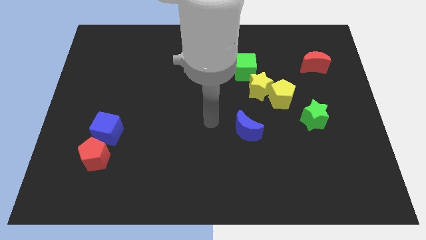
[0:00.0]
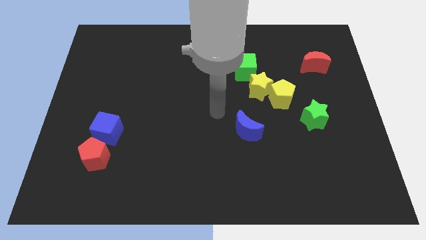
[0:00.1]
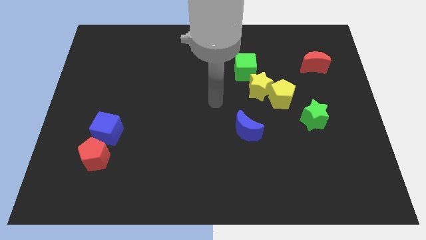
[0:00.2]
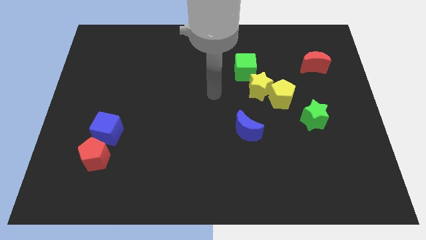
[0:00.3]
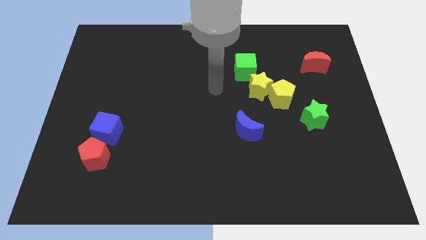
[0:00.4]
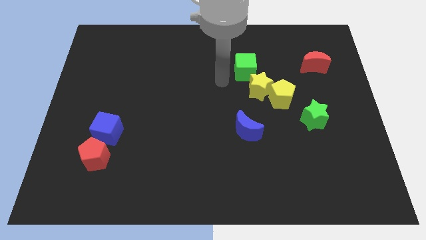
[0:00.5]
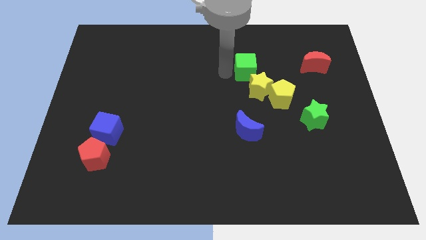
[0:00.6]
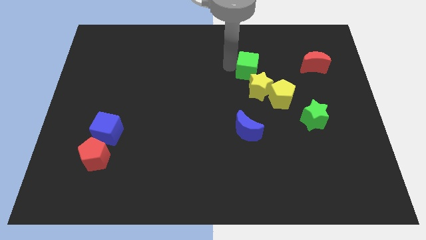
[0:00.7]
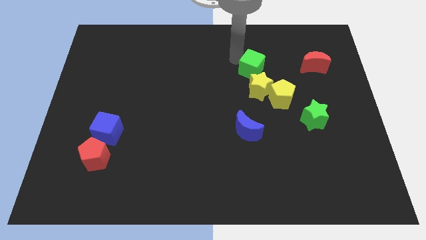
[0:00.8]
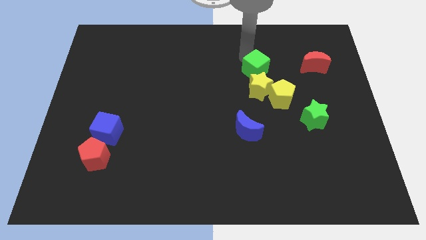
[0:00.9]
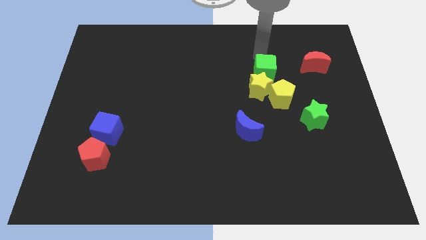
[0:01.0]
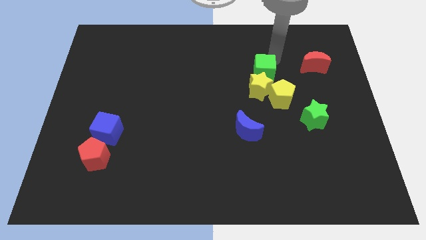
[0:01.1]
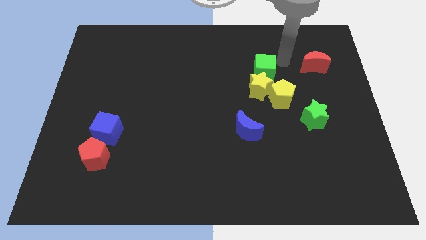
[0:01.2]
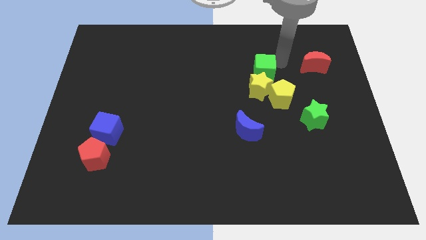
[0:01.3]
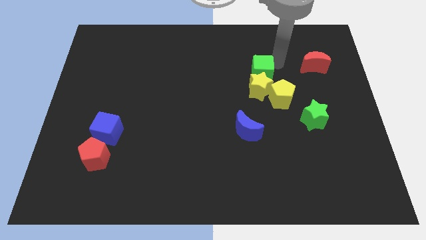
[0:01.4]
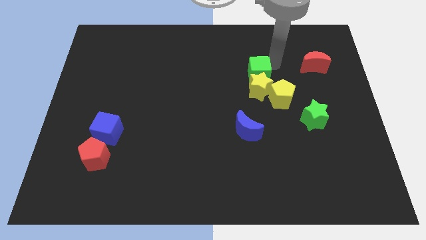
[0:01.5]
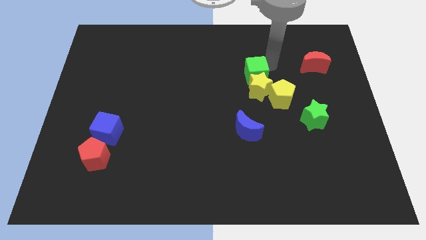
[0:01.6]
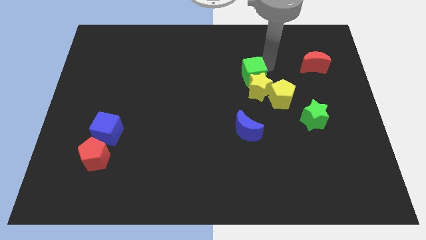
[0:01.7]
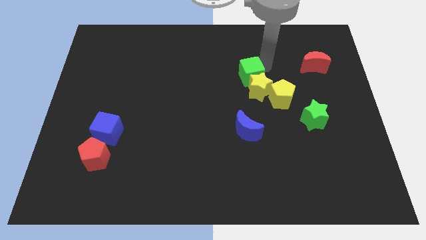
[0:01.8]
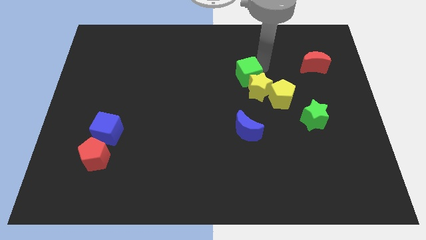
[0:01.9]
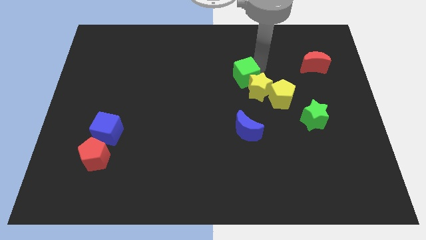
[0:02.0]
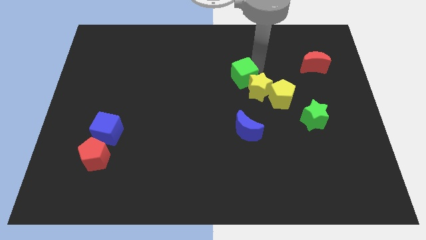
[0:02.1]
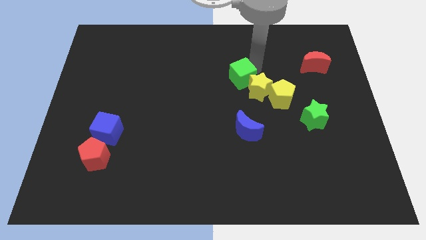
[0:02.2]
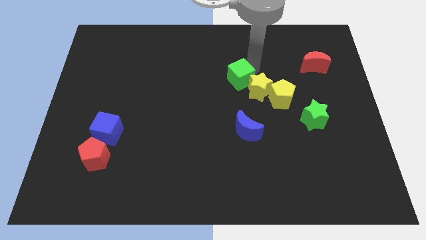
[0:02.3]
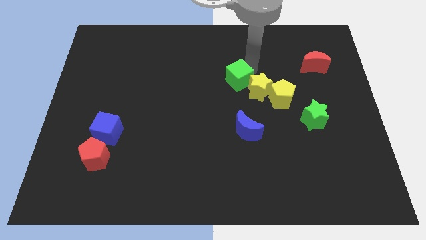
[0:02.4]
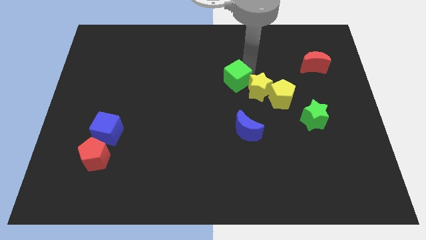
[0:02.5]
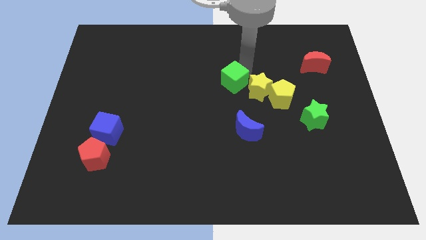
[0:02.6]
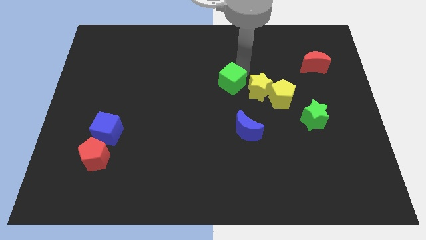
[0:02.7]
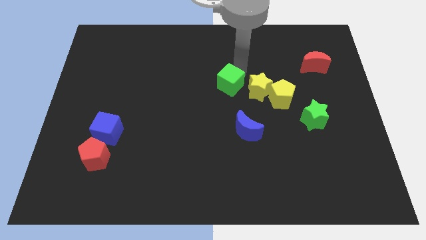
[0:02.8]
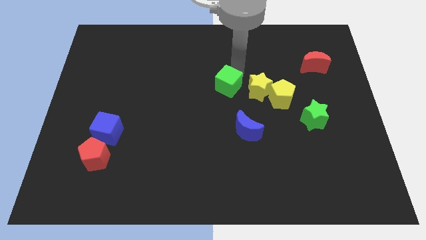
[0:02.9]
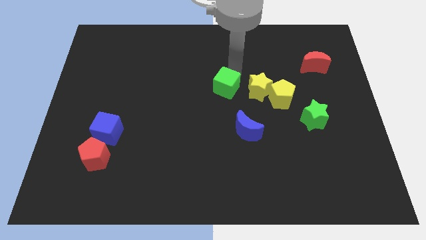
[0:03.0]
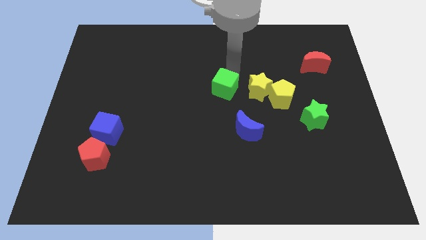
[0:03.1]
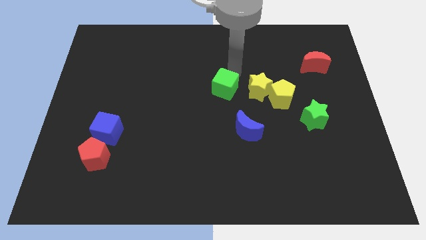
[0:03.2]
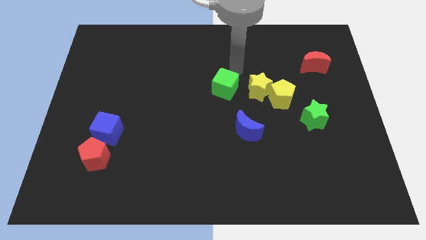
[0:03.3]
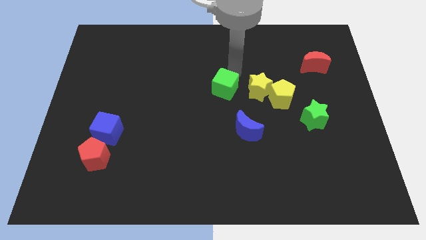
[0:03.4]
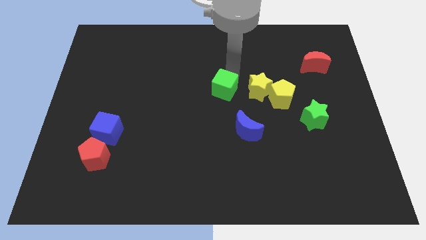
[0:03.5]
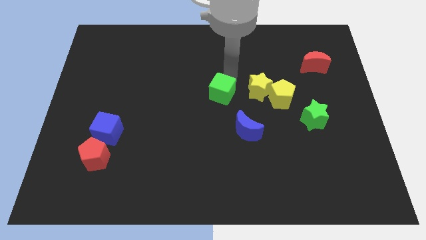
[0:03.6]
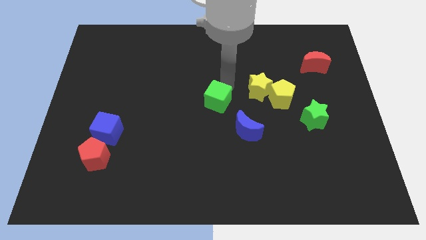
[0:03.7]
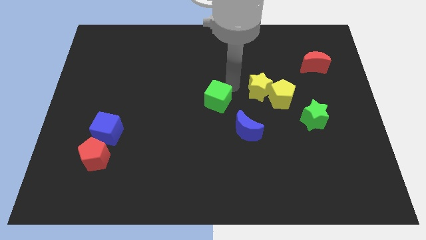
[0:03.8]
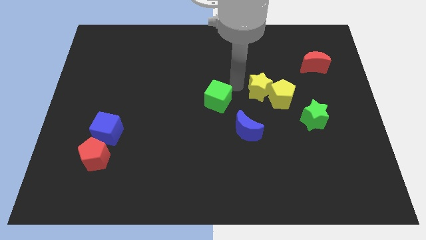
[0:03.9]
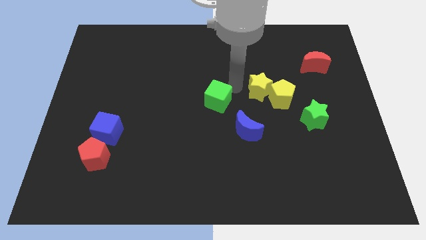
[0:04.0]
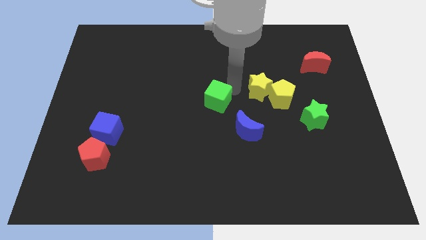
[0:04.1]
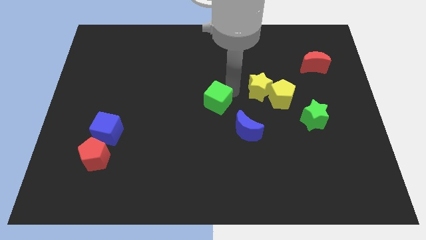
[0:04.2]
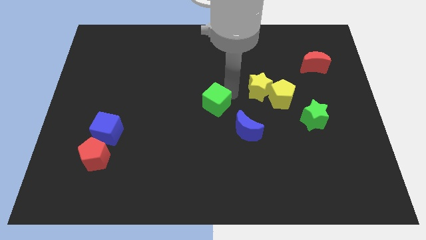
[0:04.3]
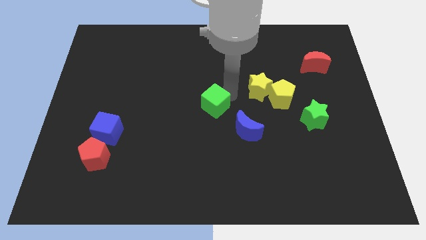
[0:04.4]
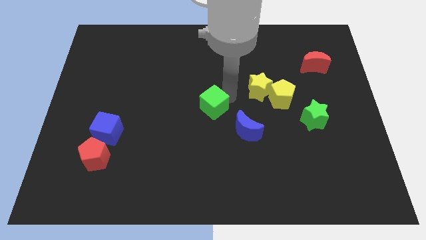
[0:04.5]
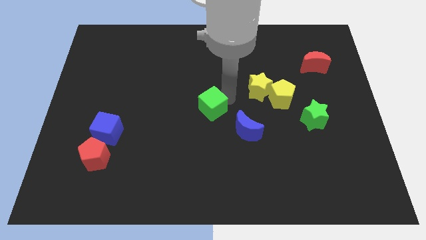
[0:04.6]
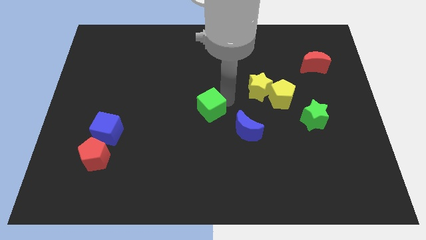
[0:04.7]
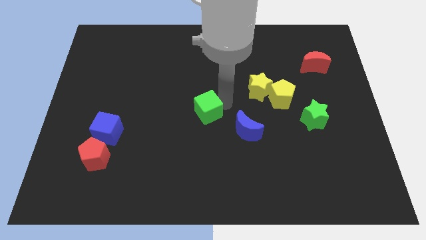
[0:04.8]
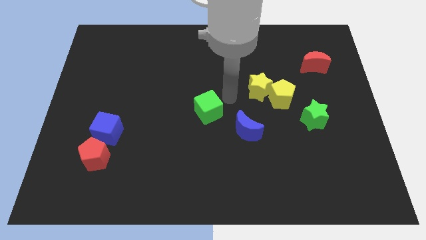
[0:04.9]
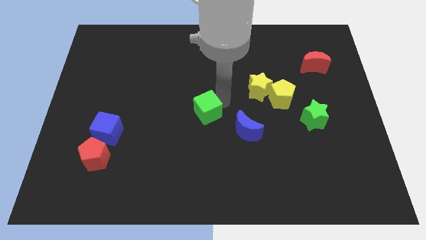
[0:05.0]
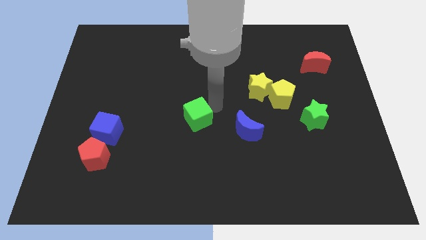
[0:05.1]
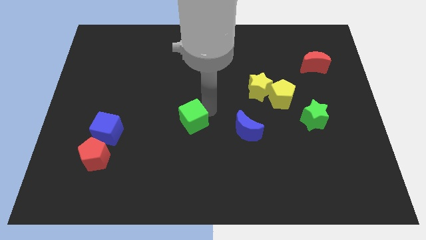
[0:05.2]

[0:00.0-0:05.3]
push the green cube down and to the left

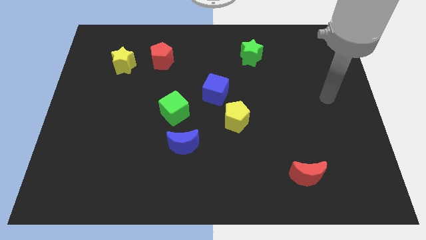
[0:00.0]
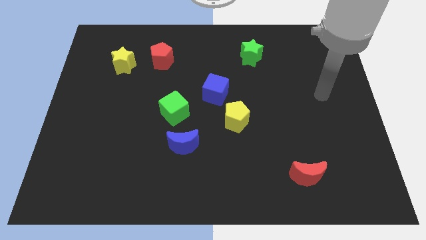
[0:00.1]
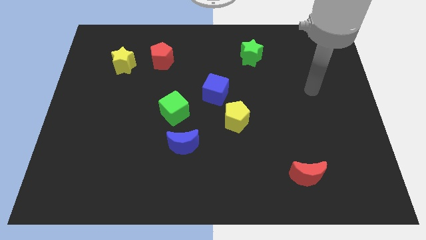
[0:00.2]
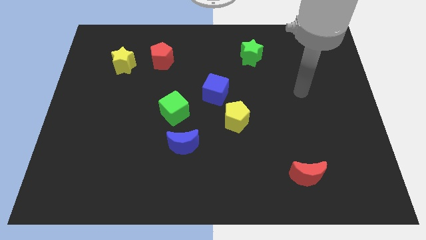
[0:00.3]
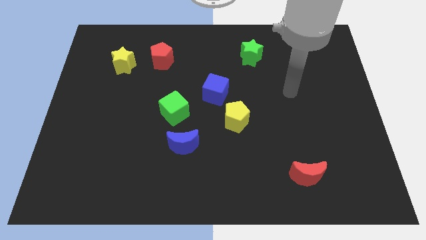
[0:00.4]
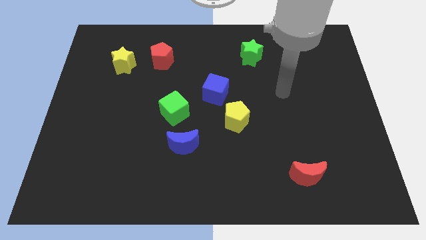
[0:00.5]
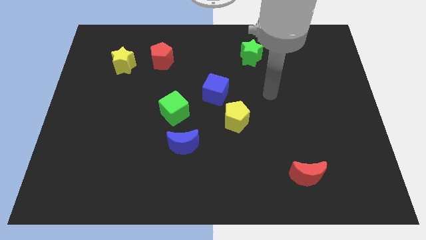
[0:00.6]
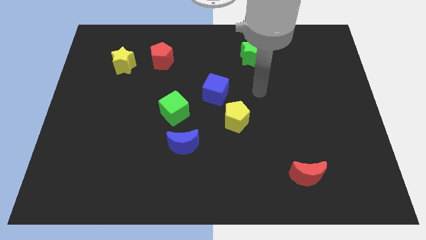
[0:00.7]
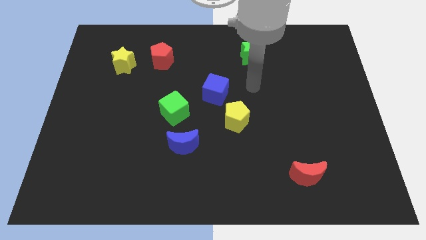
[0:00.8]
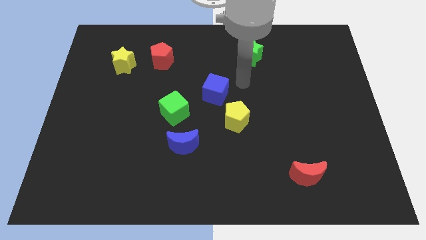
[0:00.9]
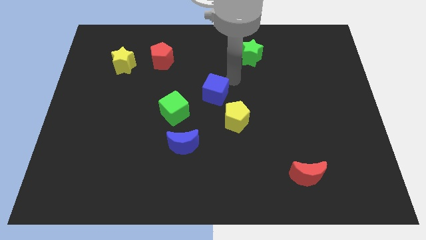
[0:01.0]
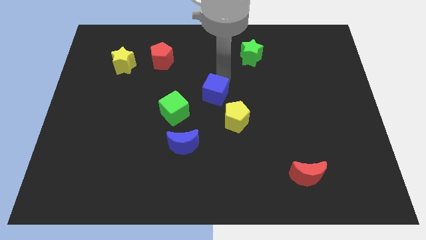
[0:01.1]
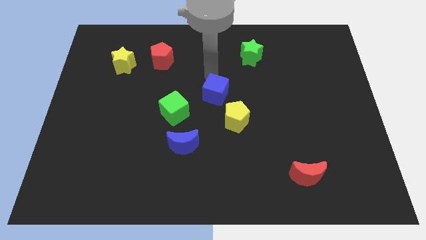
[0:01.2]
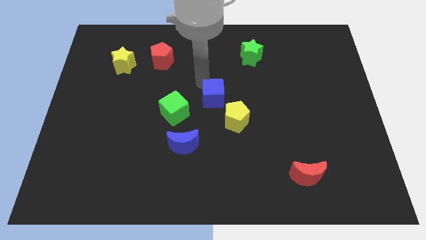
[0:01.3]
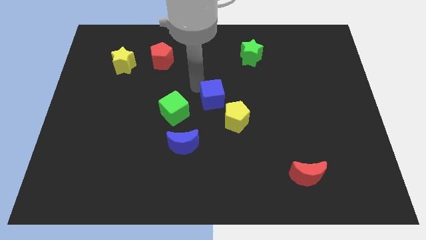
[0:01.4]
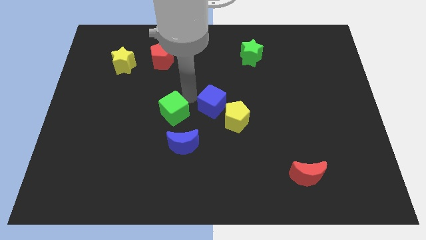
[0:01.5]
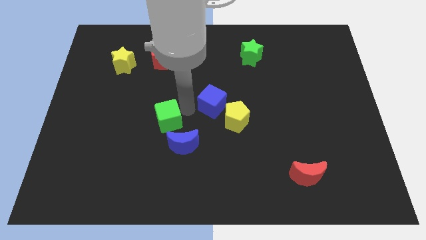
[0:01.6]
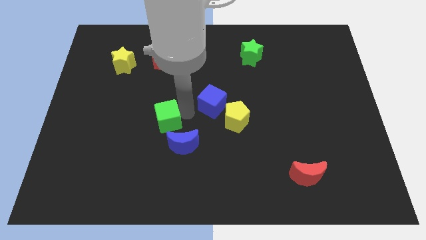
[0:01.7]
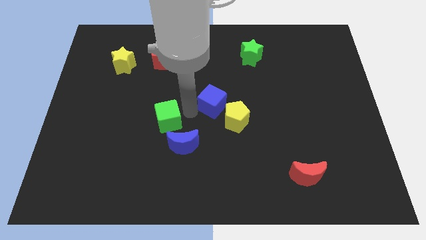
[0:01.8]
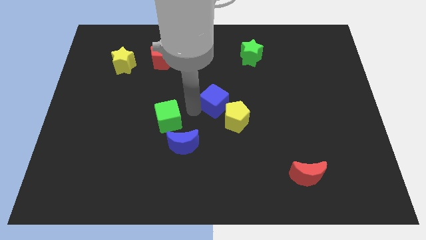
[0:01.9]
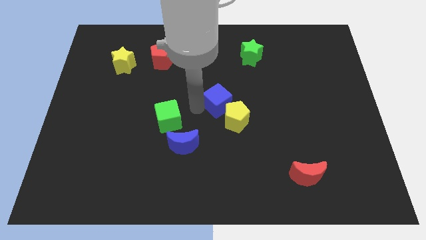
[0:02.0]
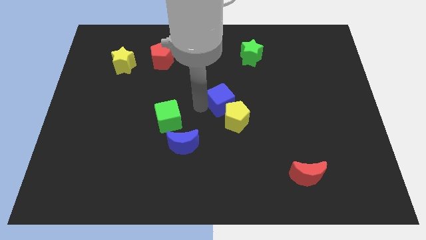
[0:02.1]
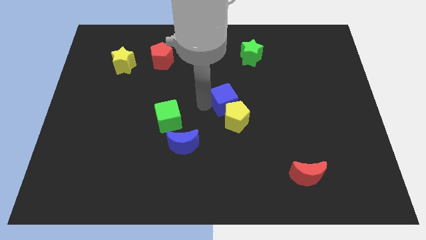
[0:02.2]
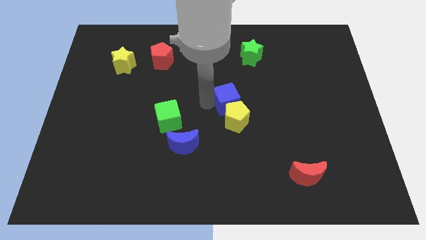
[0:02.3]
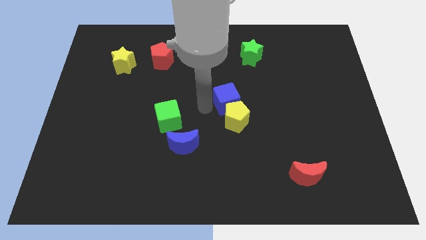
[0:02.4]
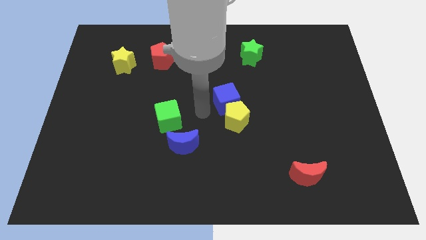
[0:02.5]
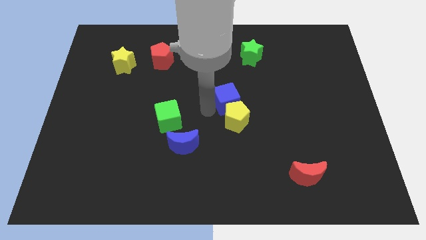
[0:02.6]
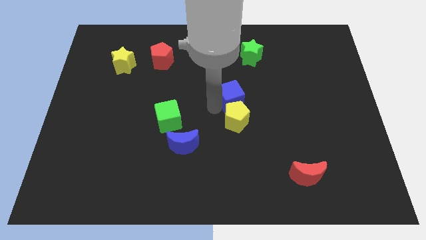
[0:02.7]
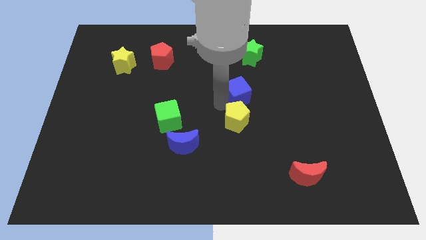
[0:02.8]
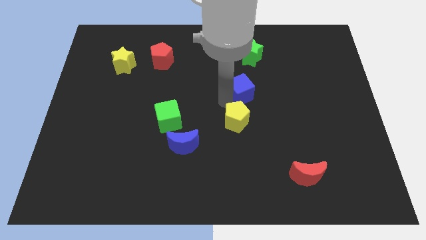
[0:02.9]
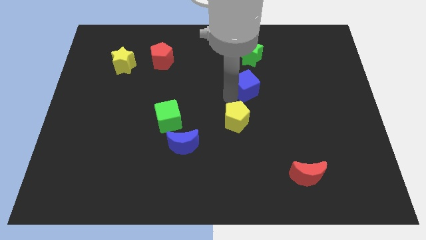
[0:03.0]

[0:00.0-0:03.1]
slightly push the blue cube to the right
